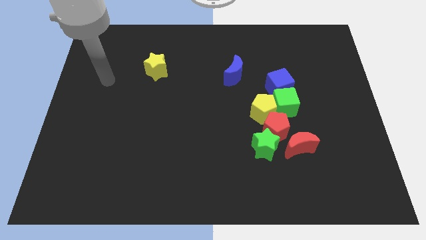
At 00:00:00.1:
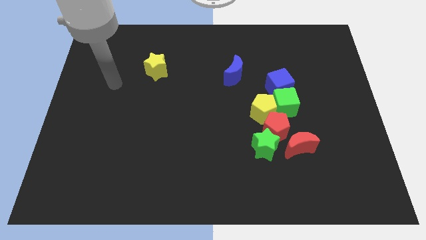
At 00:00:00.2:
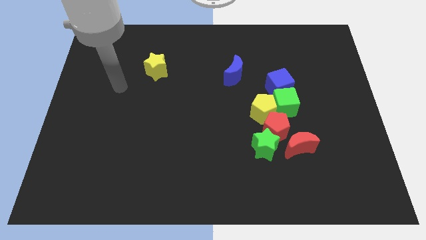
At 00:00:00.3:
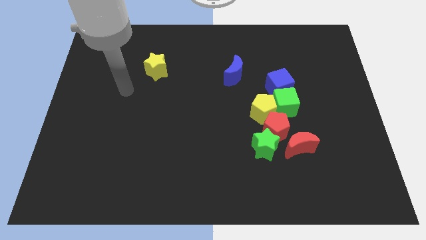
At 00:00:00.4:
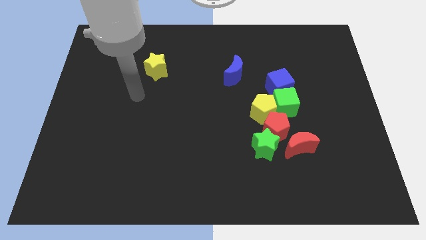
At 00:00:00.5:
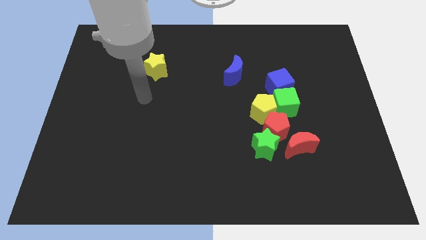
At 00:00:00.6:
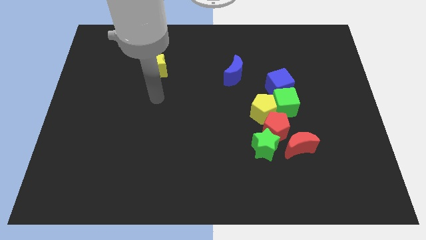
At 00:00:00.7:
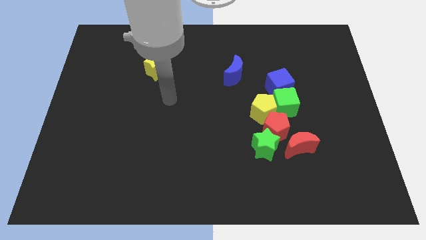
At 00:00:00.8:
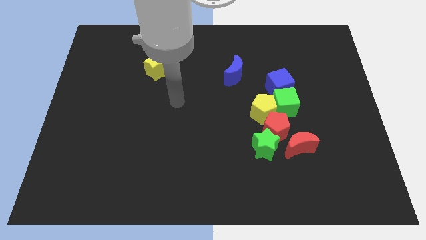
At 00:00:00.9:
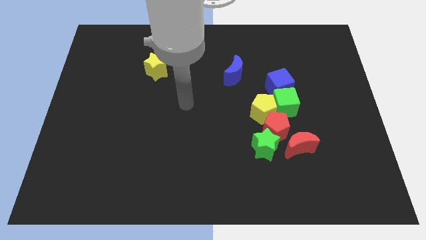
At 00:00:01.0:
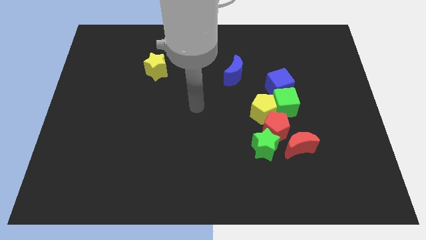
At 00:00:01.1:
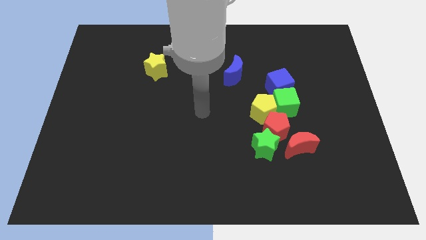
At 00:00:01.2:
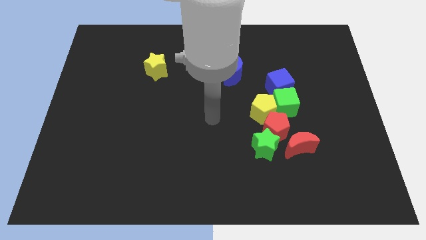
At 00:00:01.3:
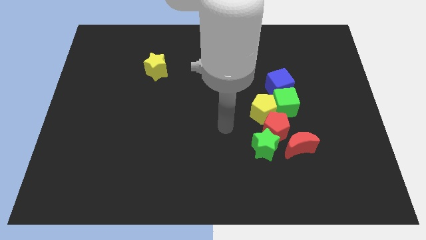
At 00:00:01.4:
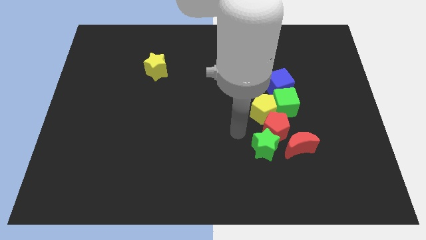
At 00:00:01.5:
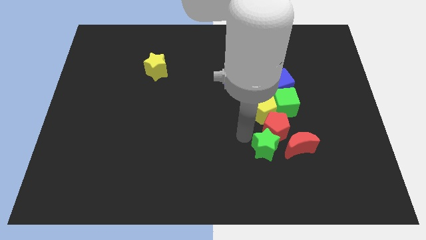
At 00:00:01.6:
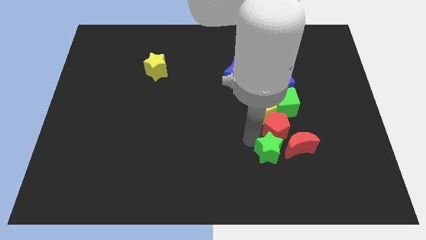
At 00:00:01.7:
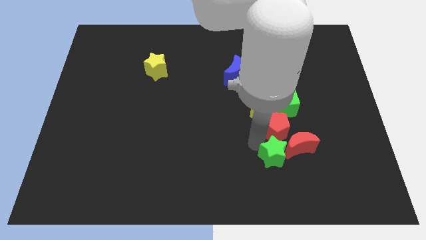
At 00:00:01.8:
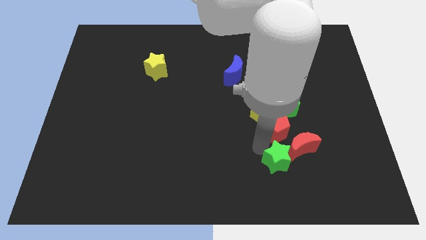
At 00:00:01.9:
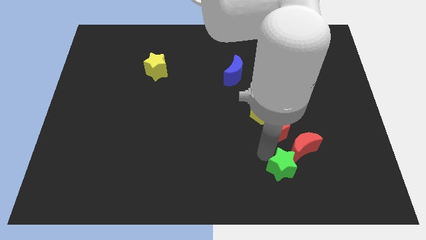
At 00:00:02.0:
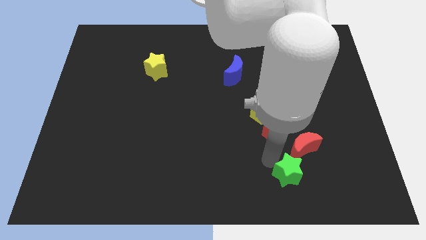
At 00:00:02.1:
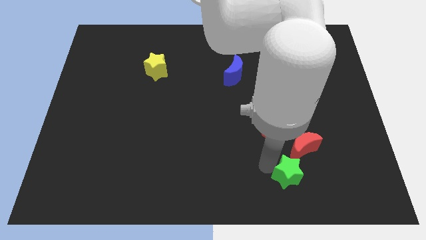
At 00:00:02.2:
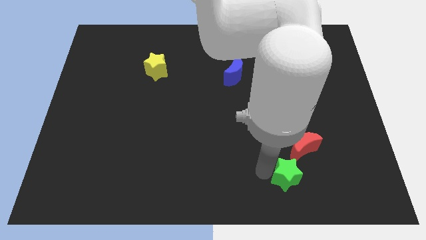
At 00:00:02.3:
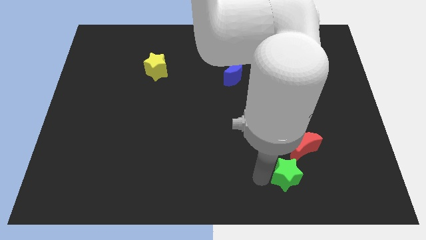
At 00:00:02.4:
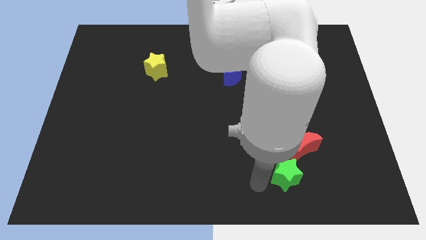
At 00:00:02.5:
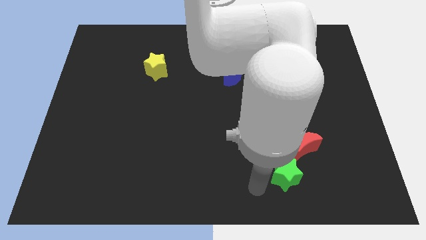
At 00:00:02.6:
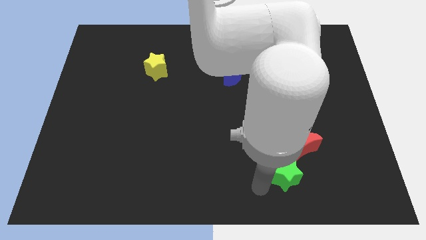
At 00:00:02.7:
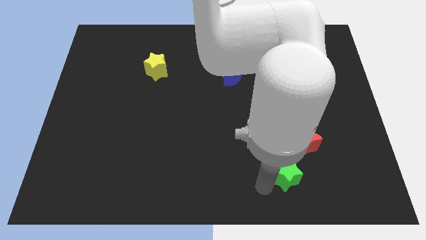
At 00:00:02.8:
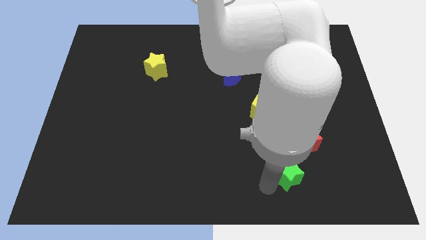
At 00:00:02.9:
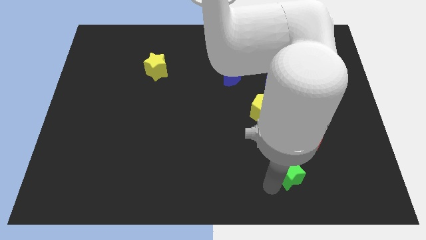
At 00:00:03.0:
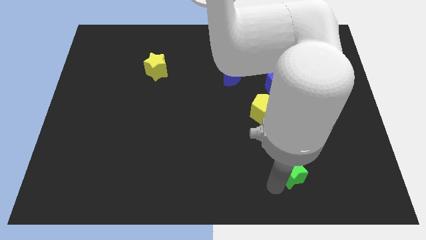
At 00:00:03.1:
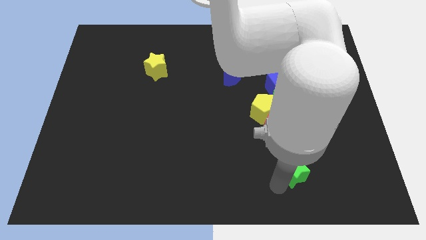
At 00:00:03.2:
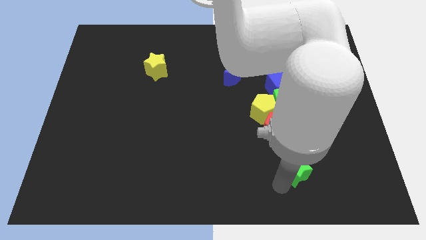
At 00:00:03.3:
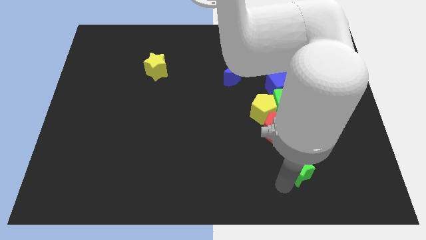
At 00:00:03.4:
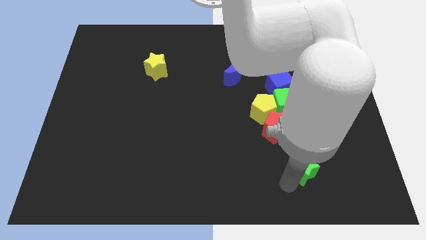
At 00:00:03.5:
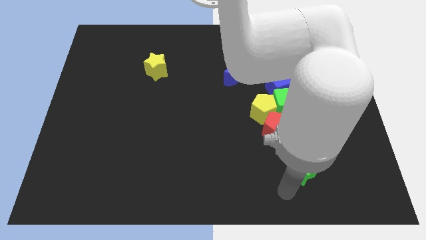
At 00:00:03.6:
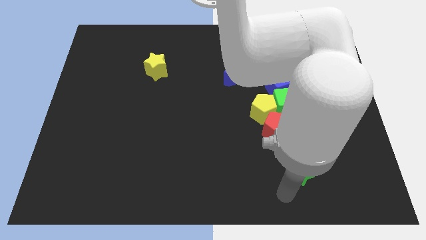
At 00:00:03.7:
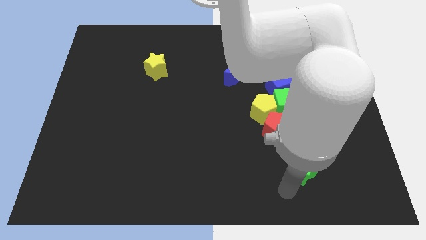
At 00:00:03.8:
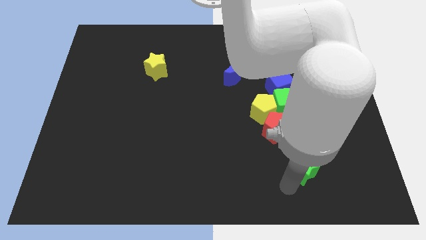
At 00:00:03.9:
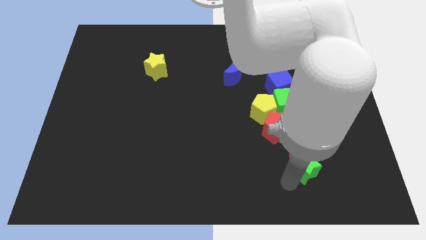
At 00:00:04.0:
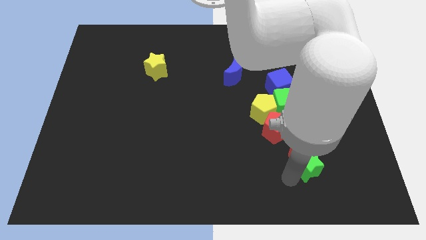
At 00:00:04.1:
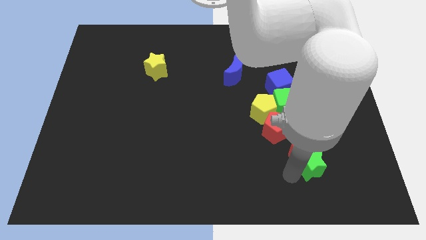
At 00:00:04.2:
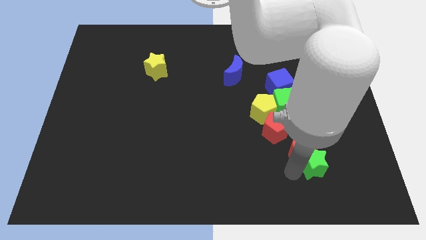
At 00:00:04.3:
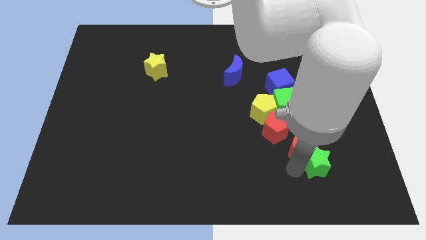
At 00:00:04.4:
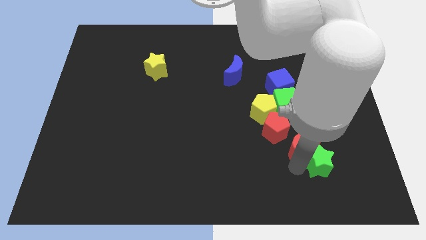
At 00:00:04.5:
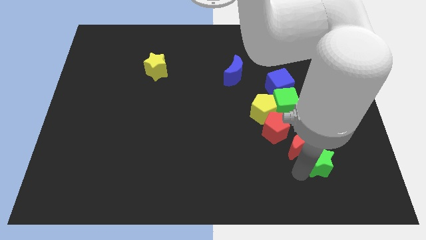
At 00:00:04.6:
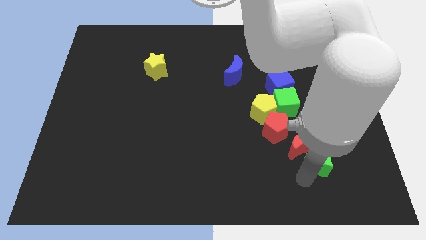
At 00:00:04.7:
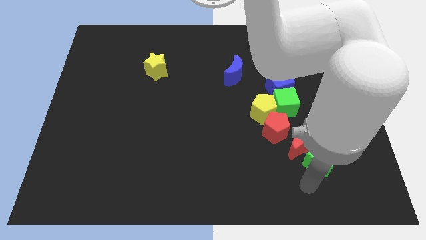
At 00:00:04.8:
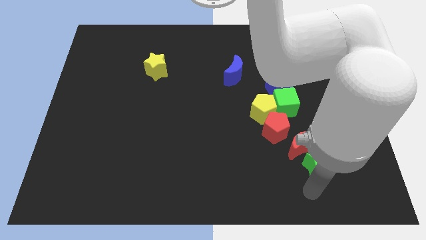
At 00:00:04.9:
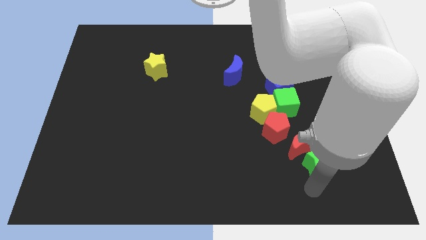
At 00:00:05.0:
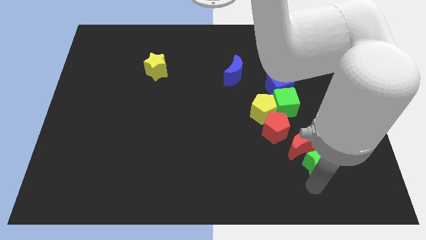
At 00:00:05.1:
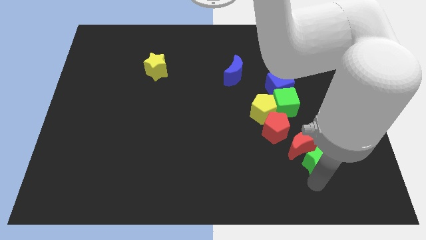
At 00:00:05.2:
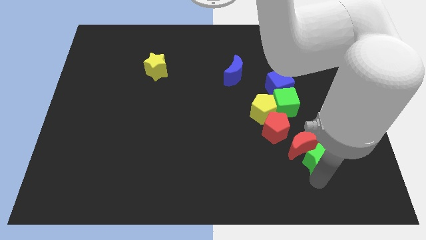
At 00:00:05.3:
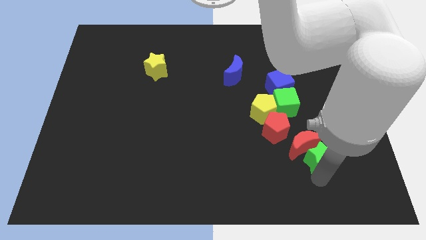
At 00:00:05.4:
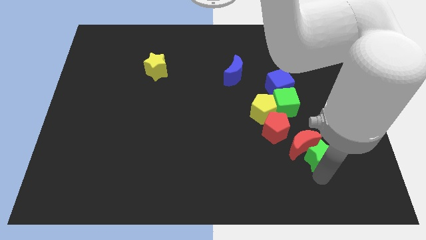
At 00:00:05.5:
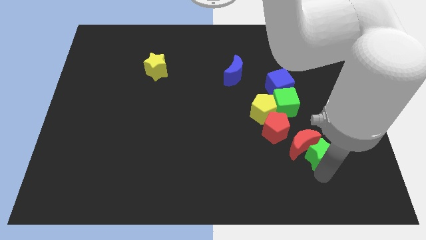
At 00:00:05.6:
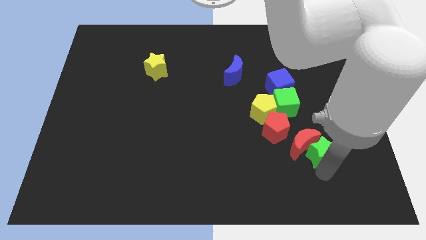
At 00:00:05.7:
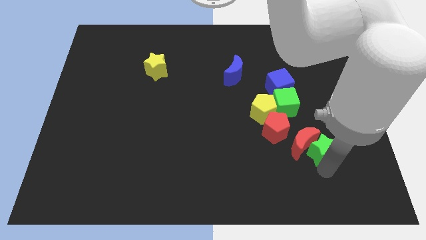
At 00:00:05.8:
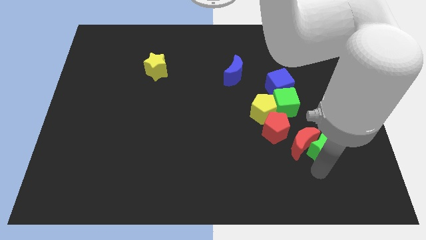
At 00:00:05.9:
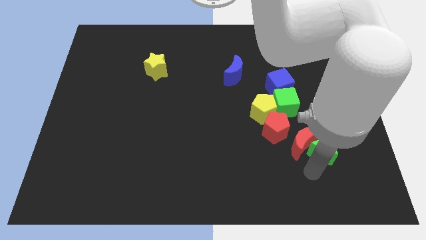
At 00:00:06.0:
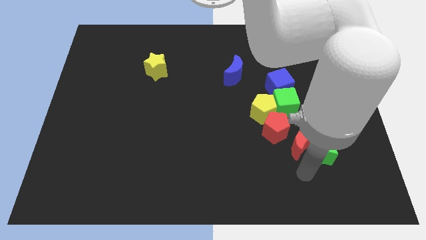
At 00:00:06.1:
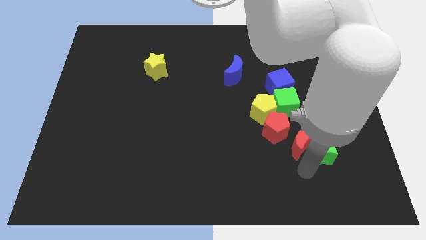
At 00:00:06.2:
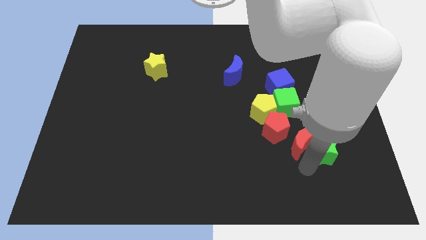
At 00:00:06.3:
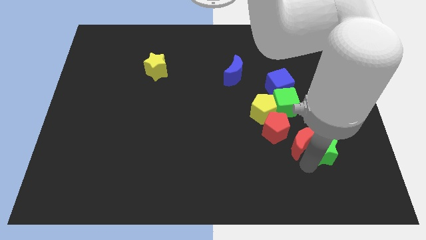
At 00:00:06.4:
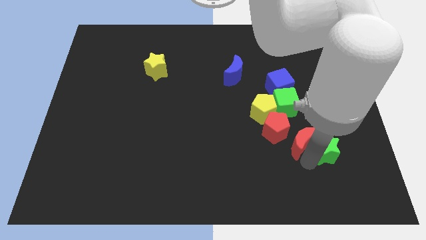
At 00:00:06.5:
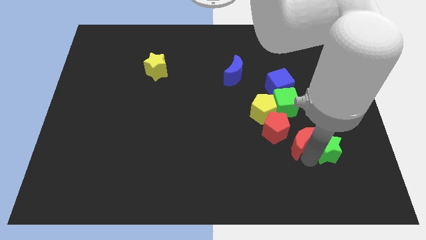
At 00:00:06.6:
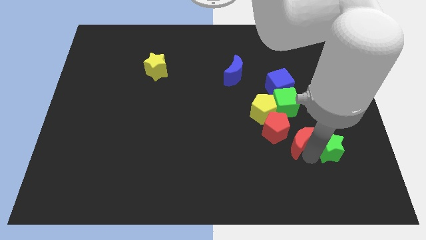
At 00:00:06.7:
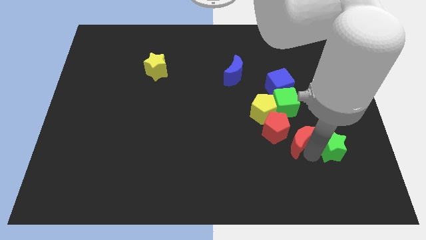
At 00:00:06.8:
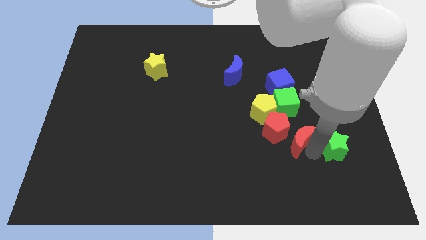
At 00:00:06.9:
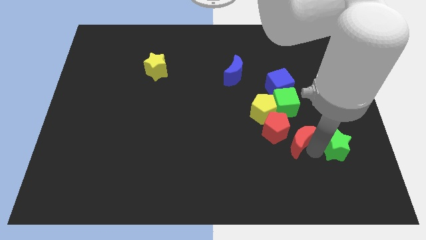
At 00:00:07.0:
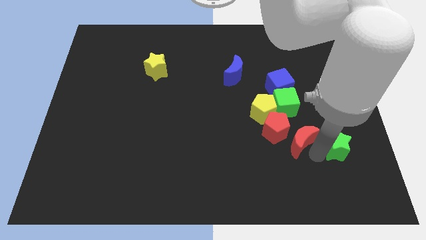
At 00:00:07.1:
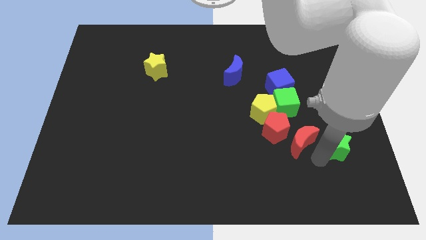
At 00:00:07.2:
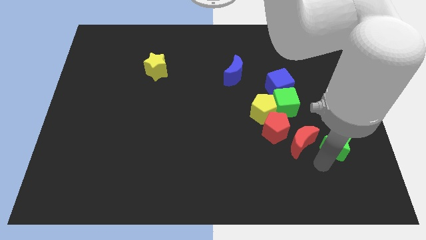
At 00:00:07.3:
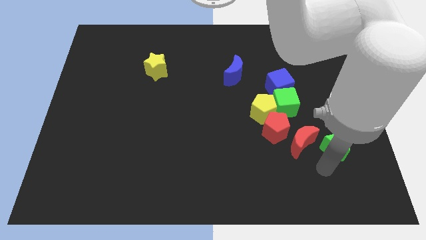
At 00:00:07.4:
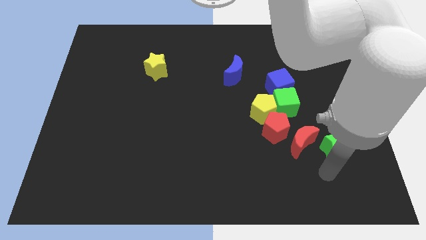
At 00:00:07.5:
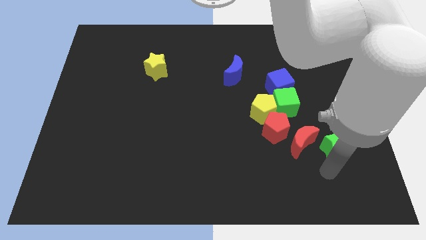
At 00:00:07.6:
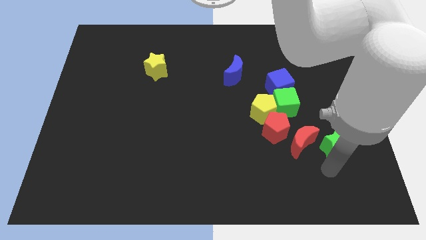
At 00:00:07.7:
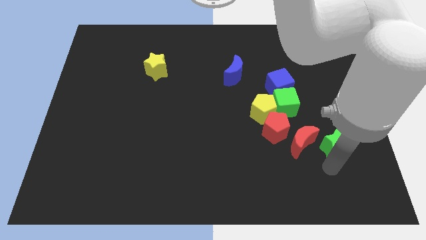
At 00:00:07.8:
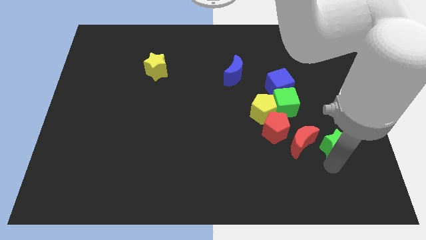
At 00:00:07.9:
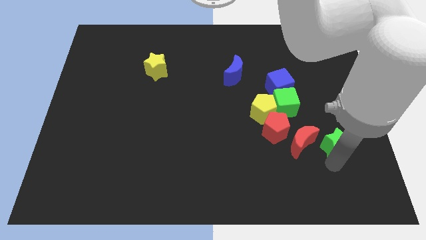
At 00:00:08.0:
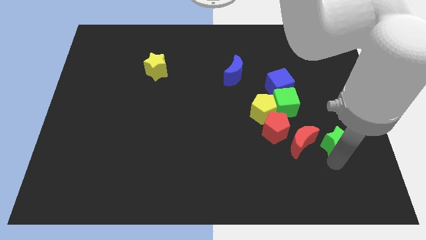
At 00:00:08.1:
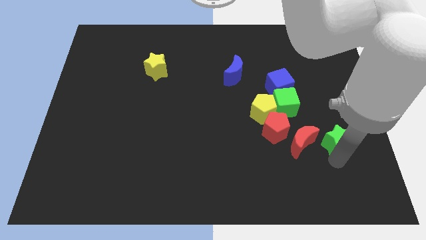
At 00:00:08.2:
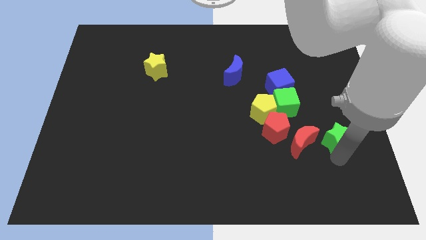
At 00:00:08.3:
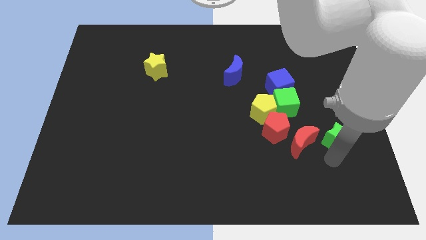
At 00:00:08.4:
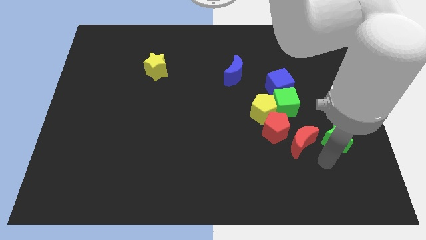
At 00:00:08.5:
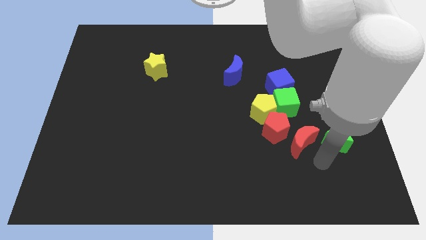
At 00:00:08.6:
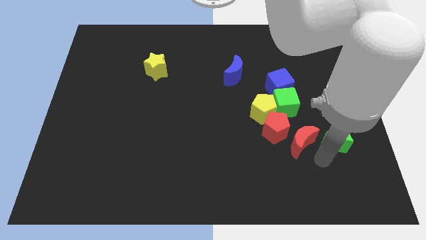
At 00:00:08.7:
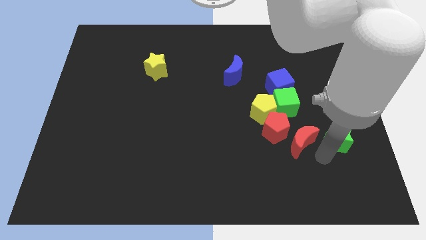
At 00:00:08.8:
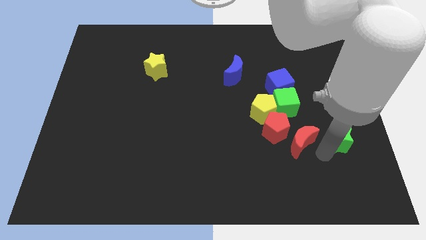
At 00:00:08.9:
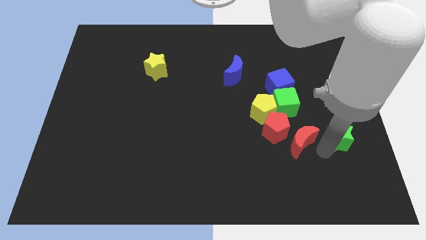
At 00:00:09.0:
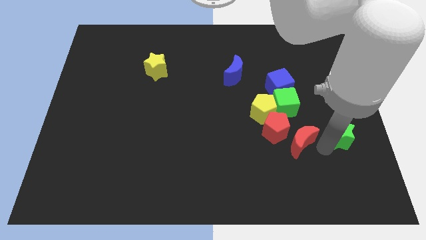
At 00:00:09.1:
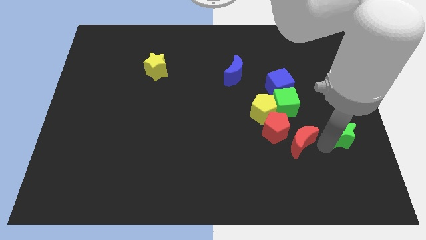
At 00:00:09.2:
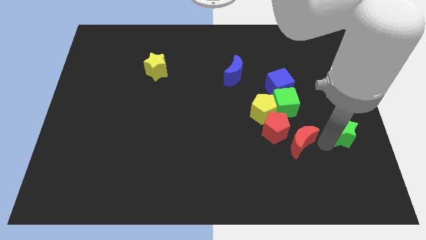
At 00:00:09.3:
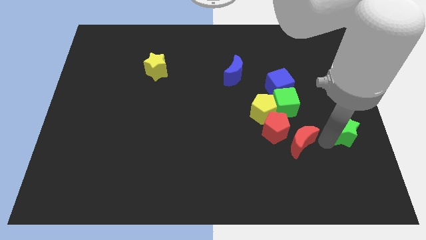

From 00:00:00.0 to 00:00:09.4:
slide the green star to the center right
